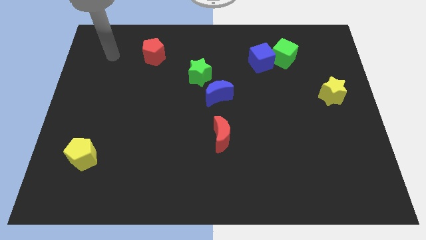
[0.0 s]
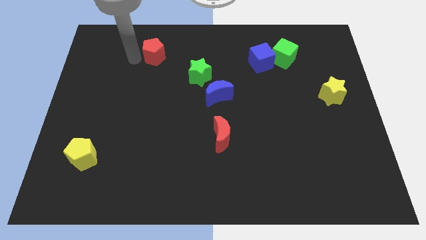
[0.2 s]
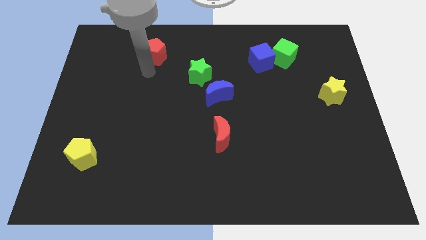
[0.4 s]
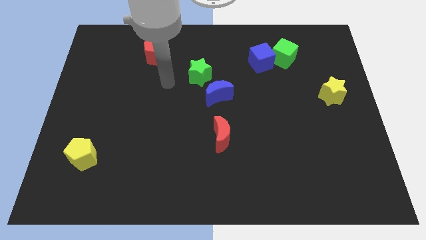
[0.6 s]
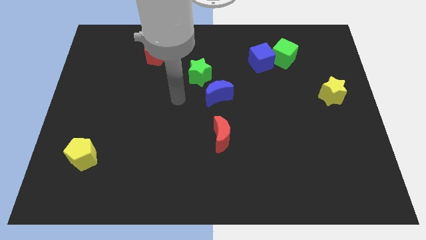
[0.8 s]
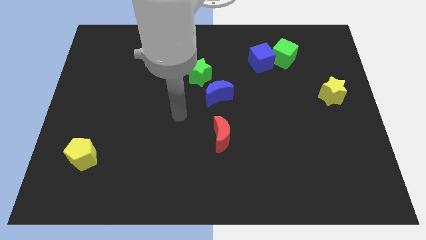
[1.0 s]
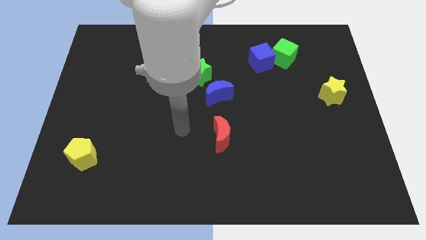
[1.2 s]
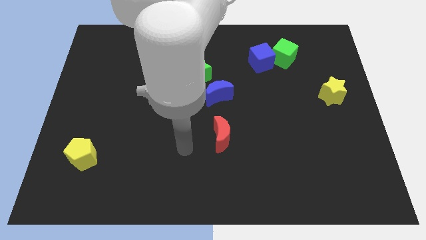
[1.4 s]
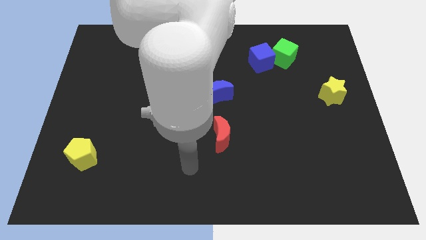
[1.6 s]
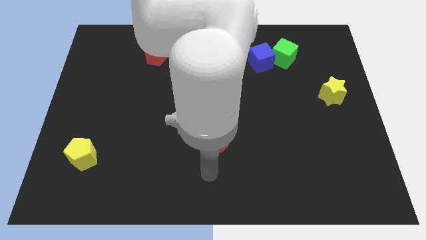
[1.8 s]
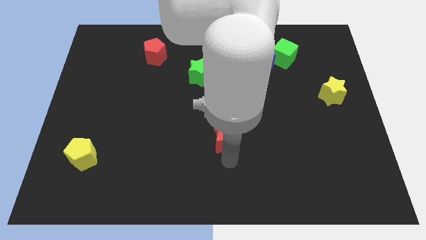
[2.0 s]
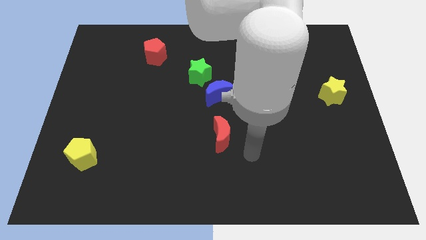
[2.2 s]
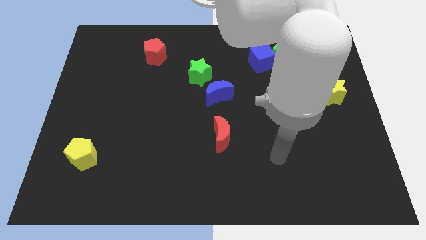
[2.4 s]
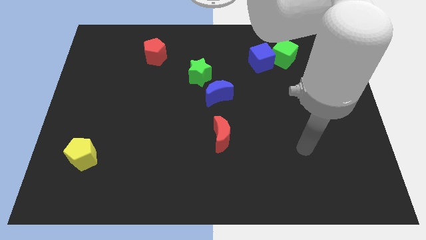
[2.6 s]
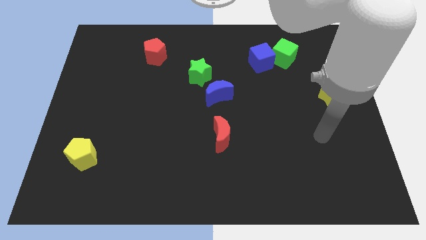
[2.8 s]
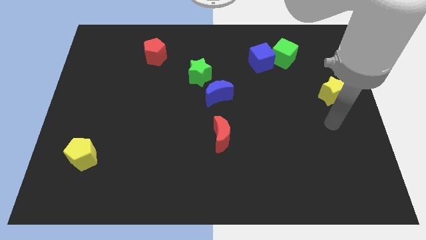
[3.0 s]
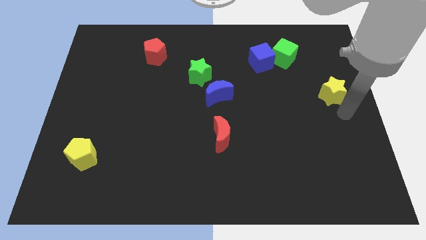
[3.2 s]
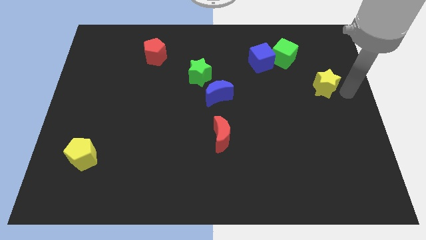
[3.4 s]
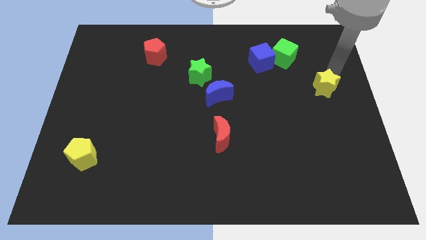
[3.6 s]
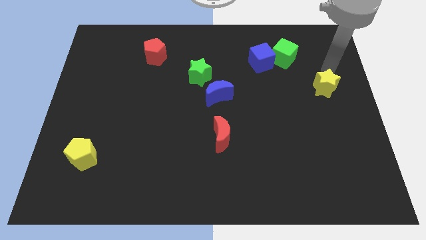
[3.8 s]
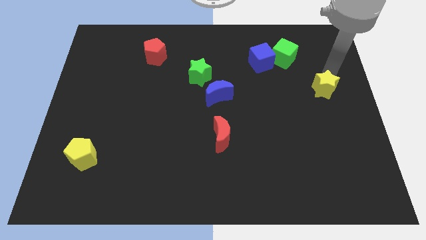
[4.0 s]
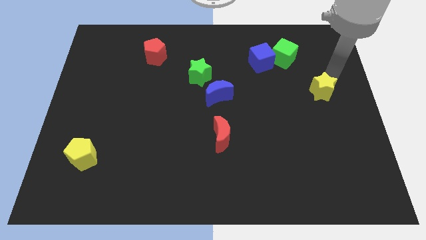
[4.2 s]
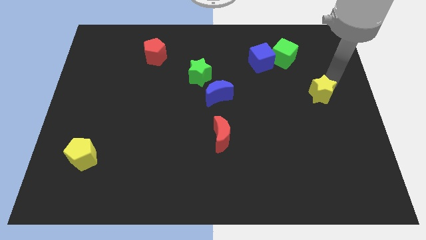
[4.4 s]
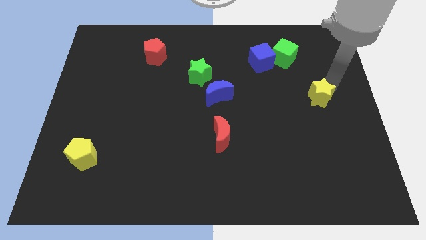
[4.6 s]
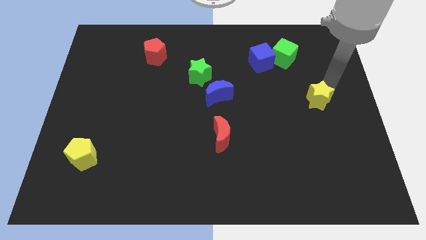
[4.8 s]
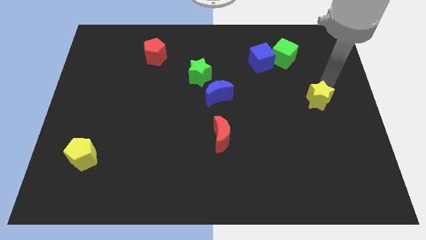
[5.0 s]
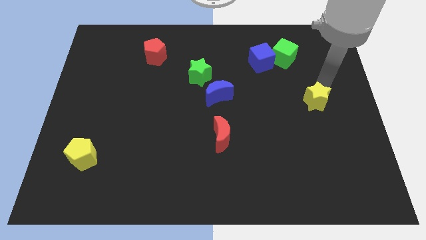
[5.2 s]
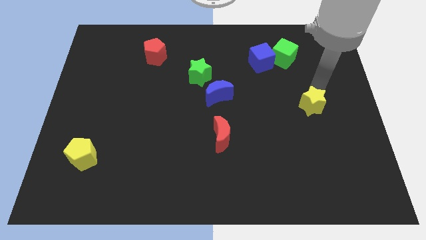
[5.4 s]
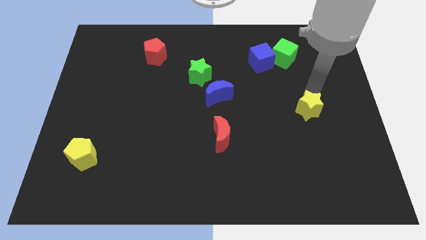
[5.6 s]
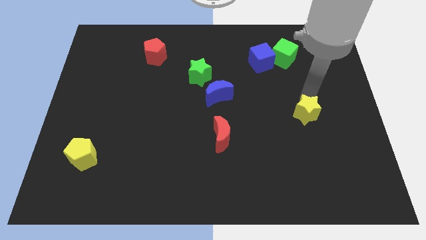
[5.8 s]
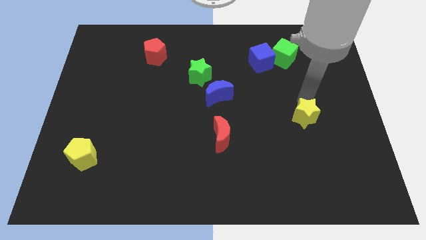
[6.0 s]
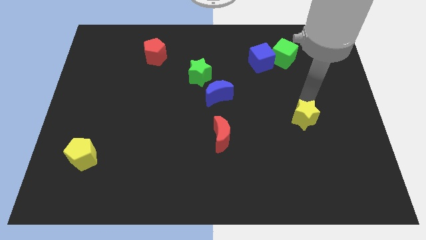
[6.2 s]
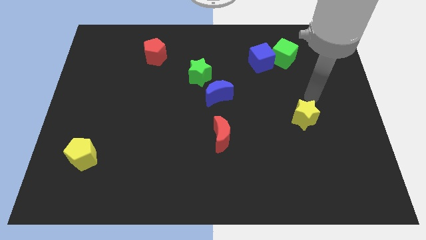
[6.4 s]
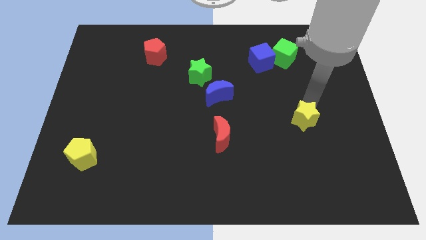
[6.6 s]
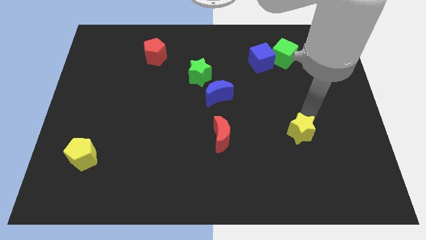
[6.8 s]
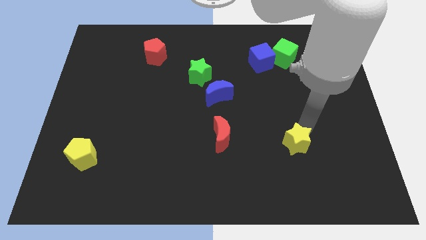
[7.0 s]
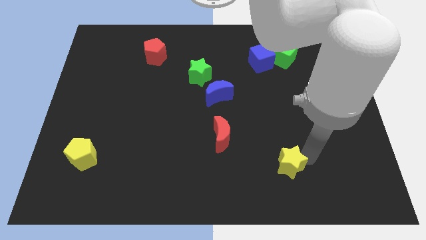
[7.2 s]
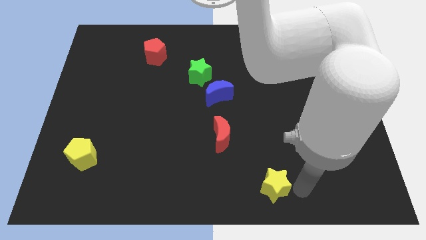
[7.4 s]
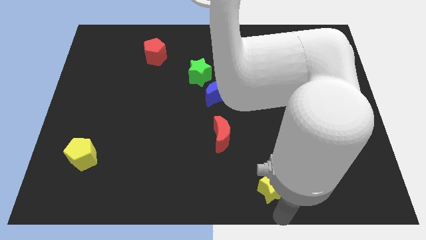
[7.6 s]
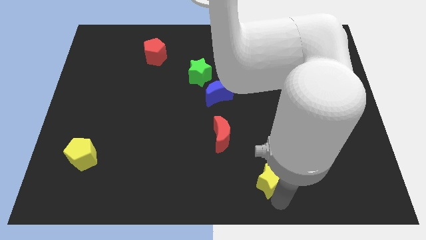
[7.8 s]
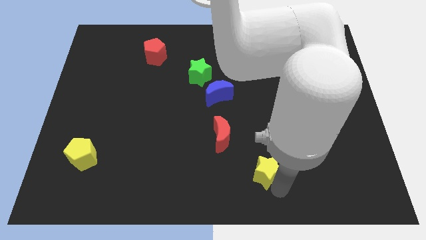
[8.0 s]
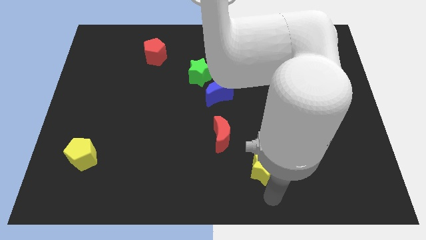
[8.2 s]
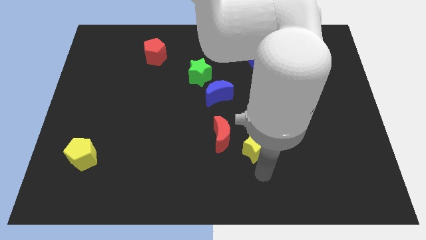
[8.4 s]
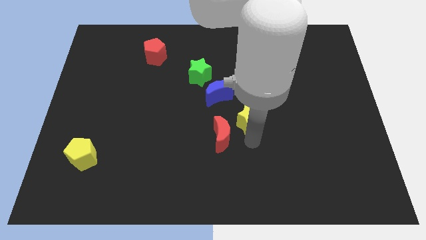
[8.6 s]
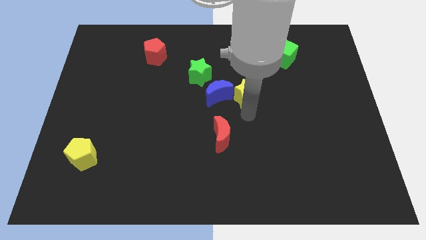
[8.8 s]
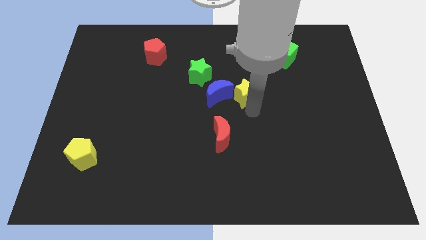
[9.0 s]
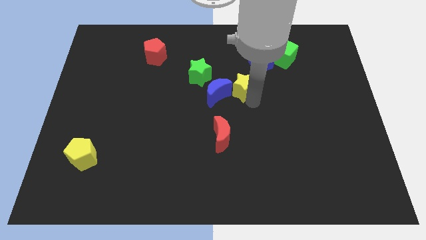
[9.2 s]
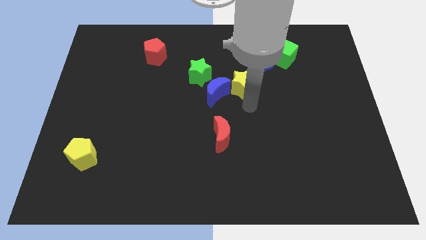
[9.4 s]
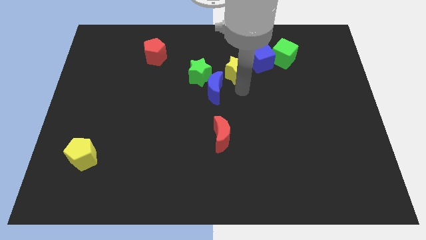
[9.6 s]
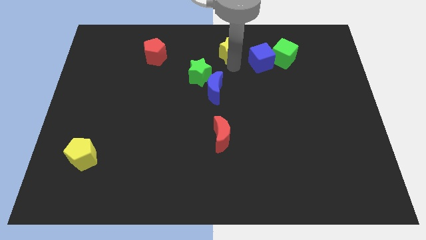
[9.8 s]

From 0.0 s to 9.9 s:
put the yellow star to the top side

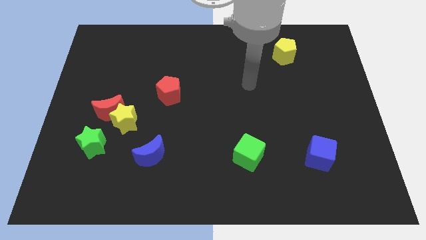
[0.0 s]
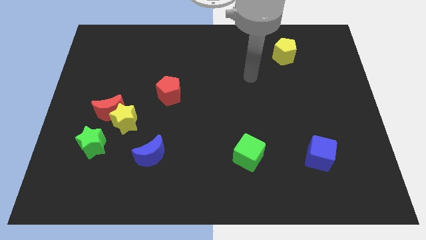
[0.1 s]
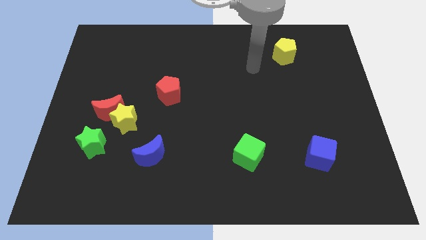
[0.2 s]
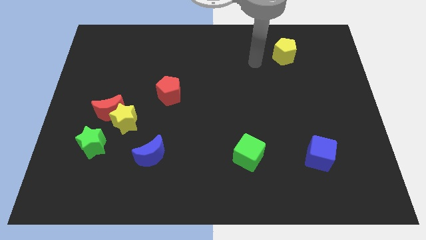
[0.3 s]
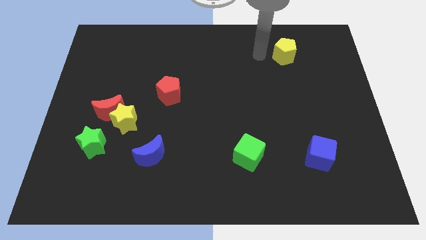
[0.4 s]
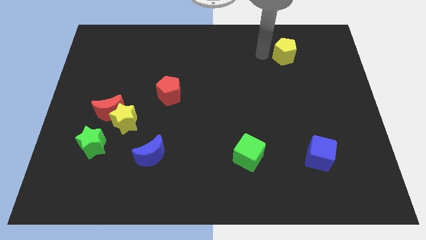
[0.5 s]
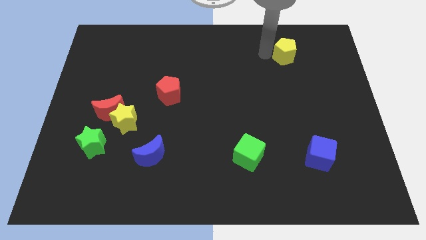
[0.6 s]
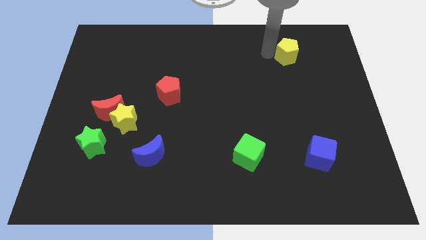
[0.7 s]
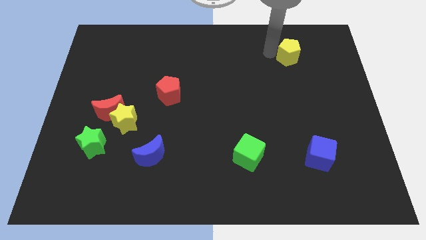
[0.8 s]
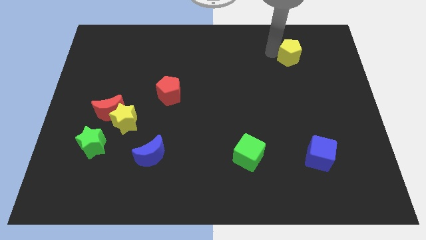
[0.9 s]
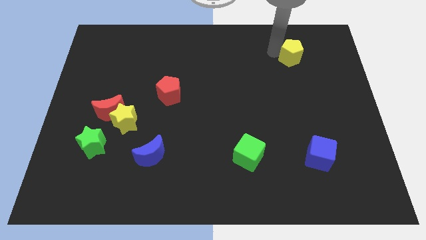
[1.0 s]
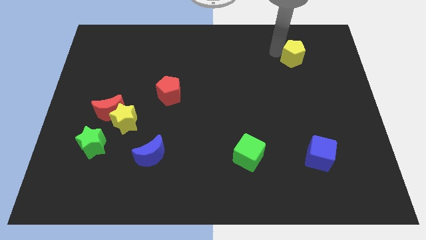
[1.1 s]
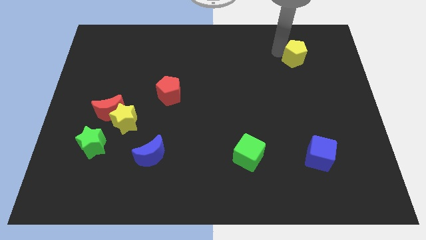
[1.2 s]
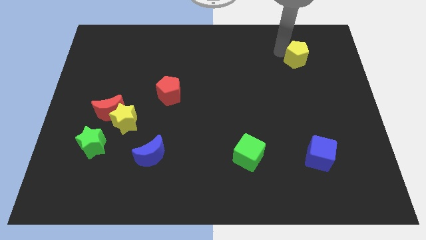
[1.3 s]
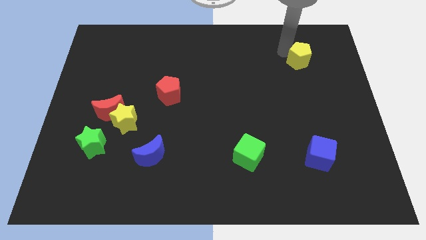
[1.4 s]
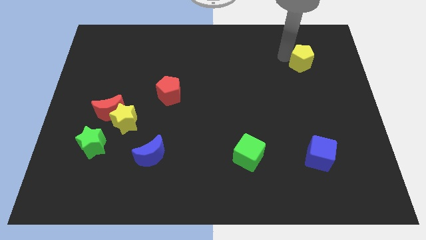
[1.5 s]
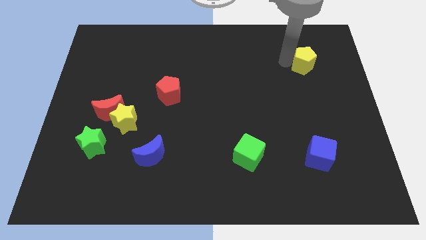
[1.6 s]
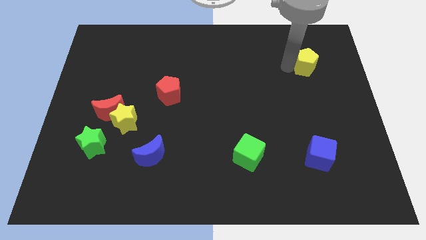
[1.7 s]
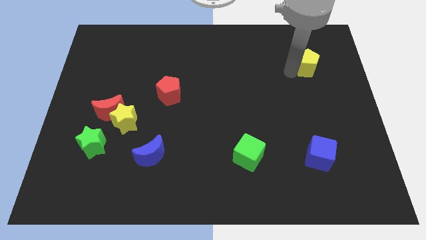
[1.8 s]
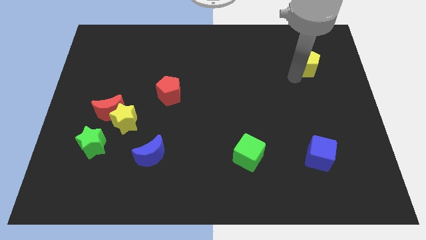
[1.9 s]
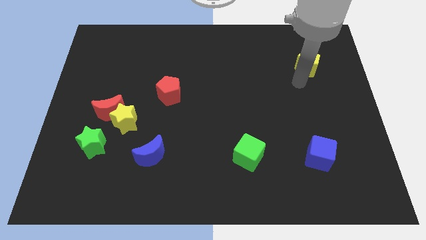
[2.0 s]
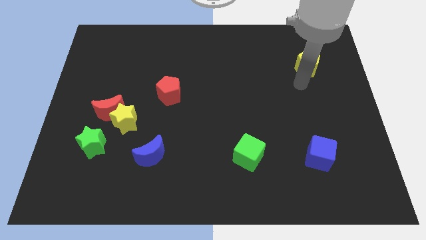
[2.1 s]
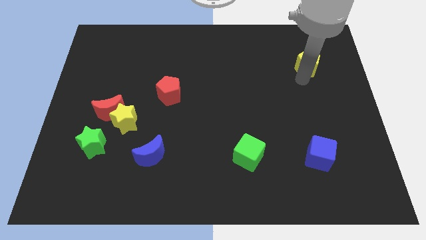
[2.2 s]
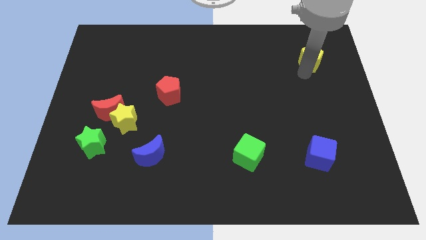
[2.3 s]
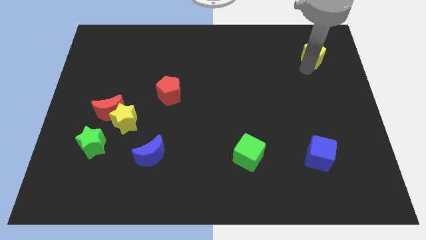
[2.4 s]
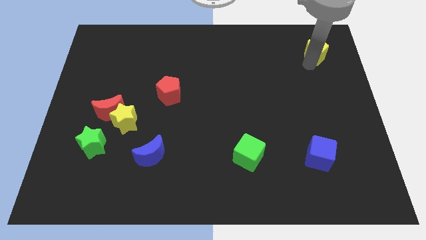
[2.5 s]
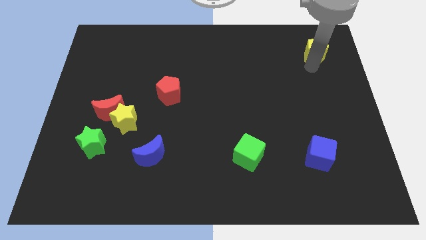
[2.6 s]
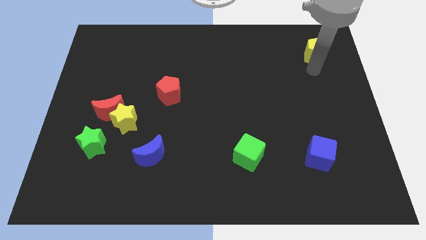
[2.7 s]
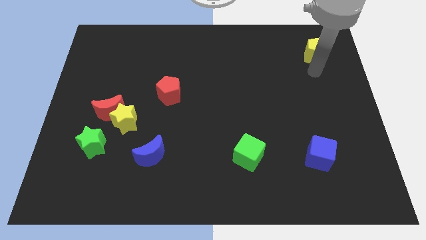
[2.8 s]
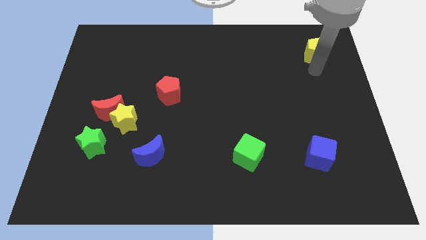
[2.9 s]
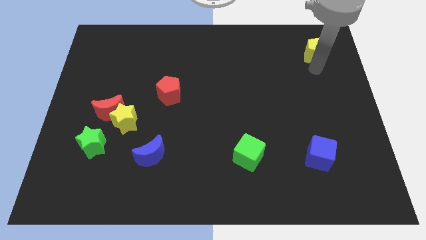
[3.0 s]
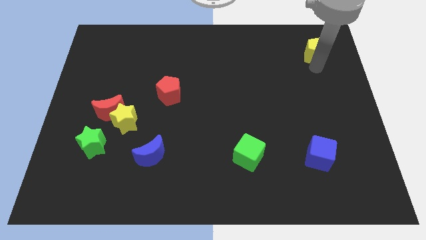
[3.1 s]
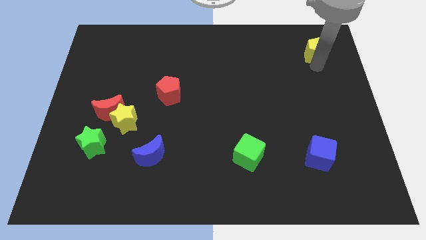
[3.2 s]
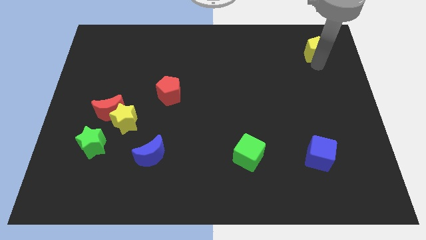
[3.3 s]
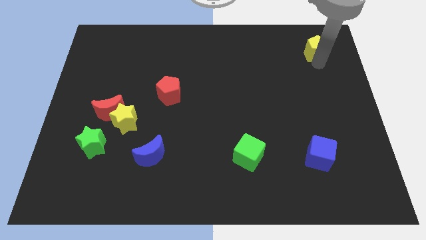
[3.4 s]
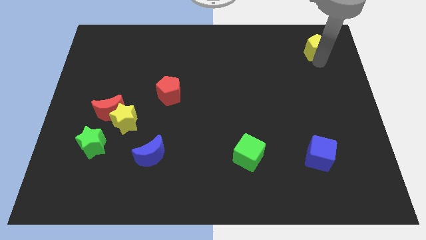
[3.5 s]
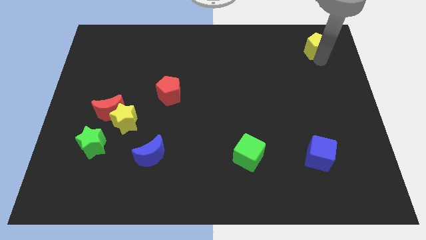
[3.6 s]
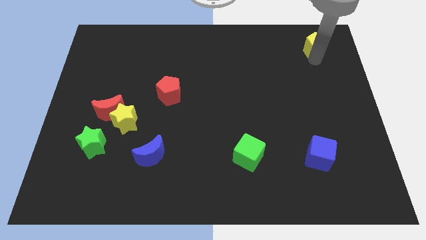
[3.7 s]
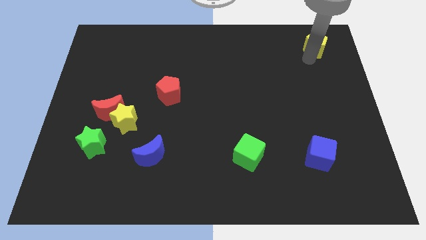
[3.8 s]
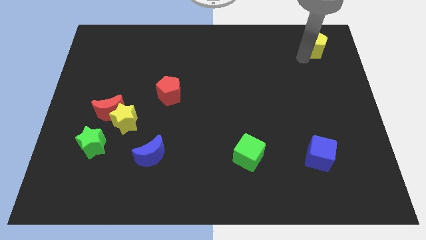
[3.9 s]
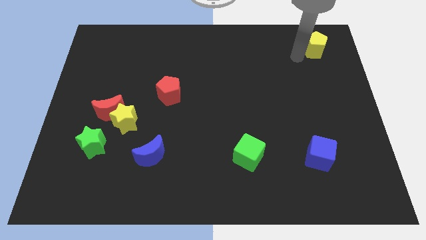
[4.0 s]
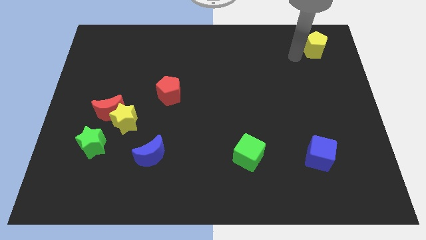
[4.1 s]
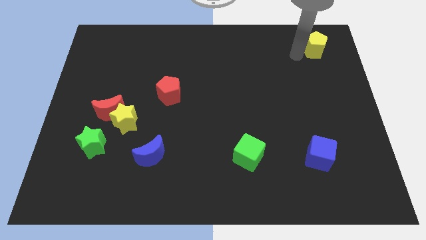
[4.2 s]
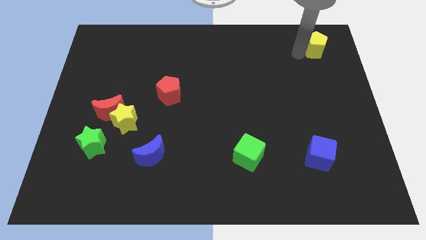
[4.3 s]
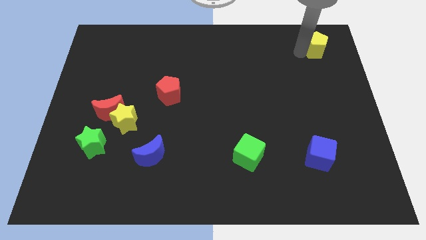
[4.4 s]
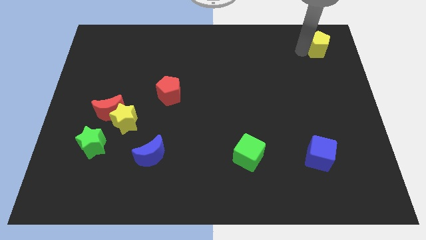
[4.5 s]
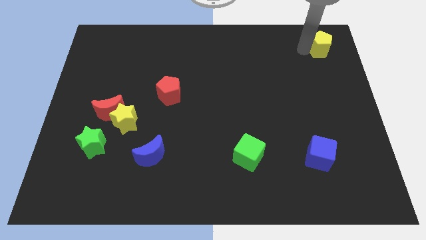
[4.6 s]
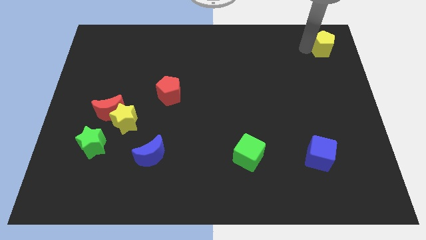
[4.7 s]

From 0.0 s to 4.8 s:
slide the yellow pentagon to the top right corner
